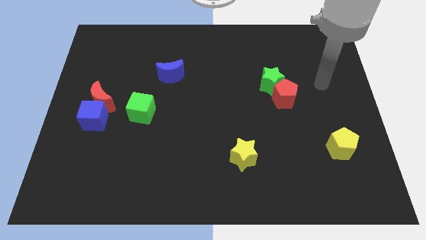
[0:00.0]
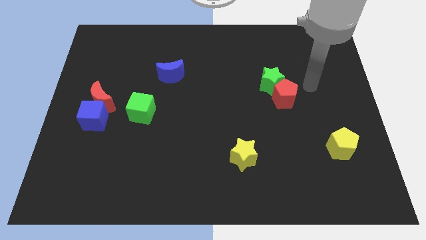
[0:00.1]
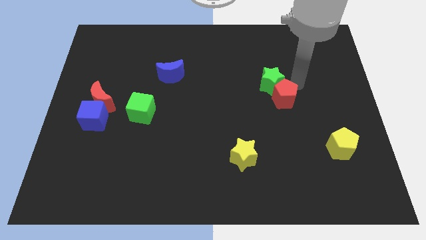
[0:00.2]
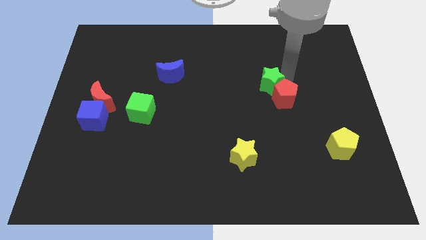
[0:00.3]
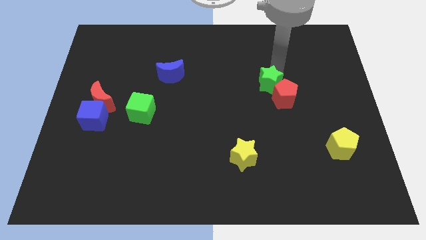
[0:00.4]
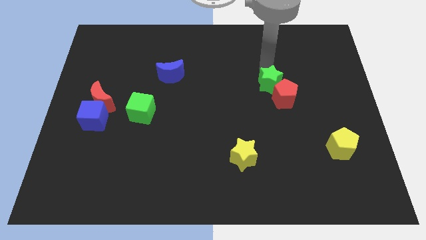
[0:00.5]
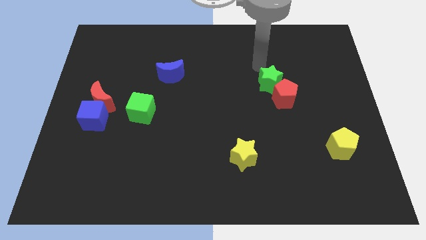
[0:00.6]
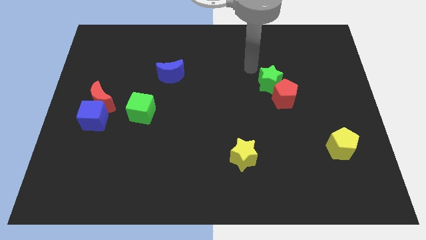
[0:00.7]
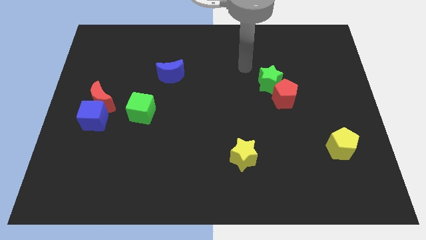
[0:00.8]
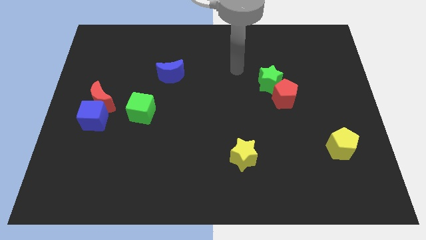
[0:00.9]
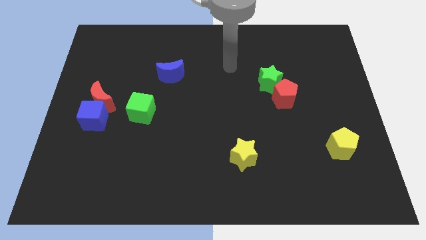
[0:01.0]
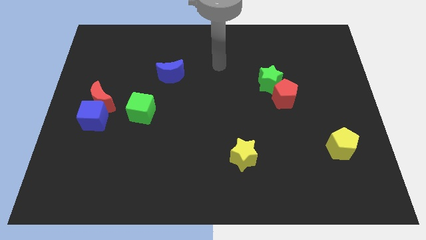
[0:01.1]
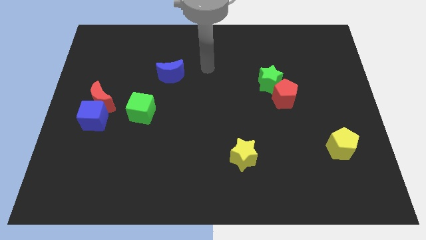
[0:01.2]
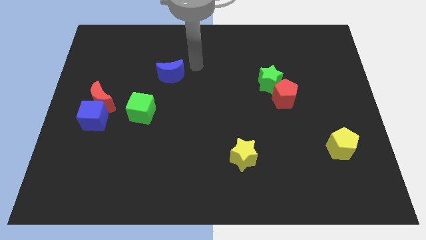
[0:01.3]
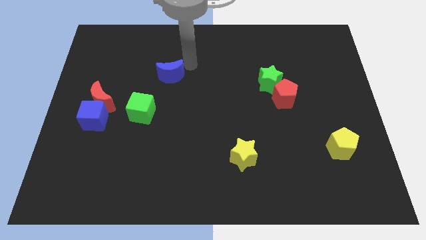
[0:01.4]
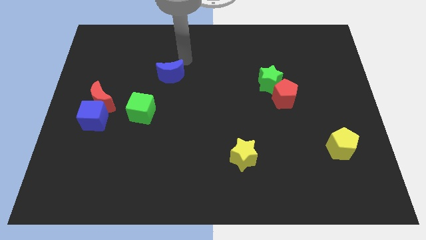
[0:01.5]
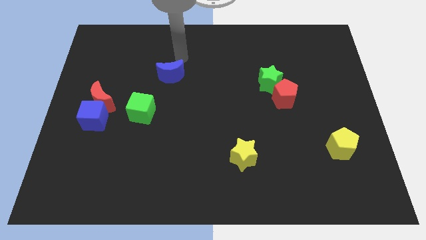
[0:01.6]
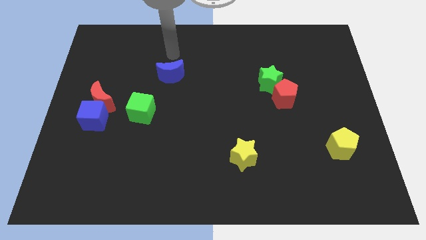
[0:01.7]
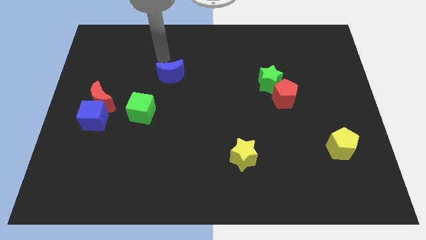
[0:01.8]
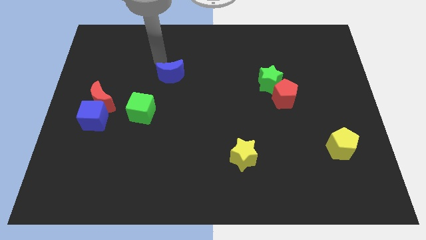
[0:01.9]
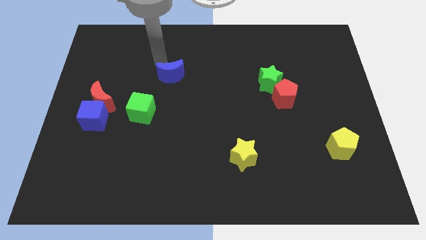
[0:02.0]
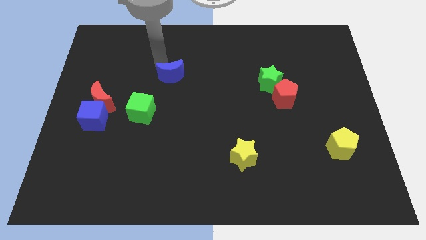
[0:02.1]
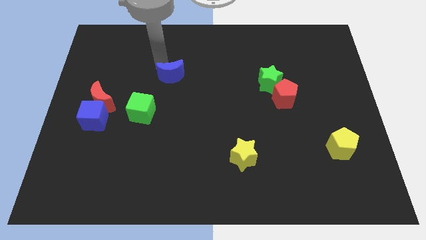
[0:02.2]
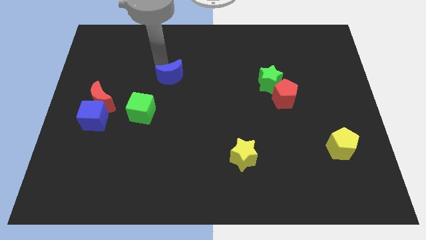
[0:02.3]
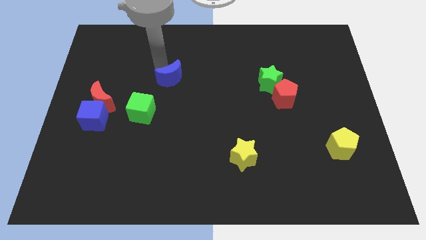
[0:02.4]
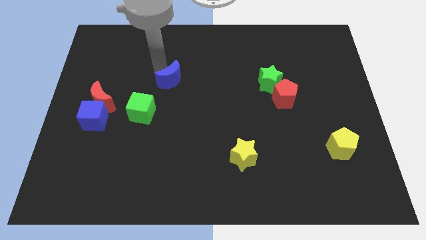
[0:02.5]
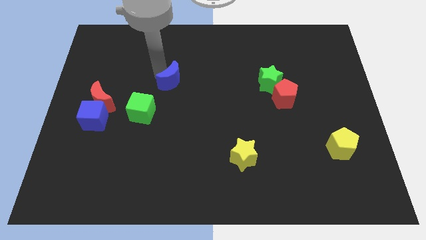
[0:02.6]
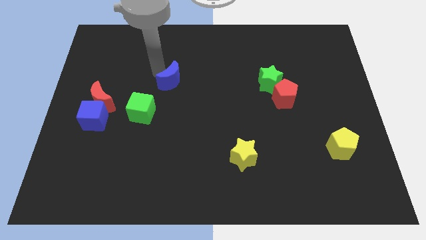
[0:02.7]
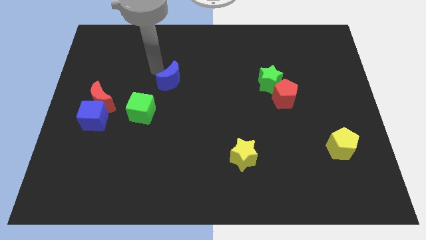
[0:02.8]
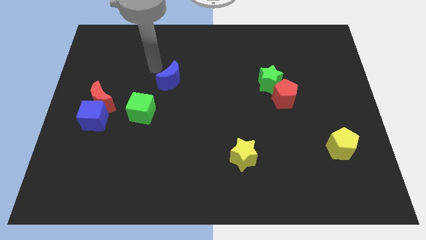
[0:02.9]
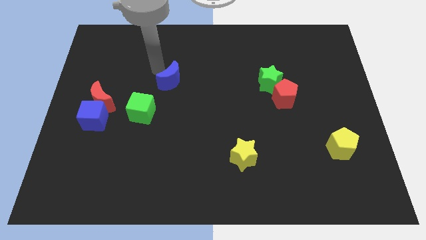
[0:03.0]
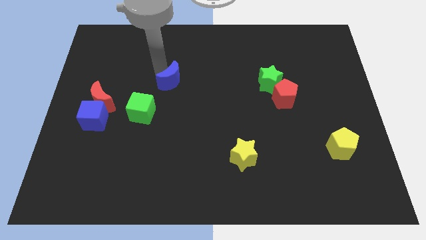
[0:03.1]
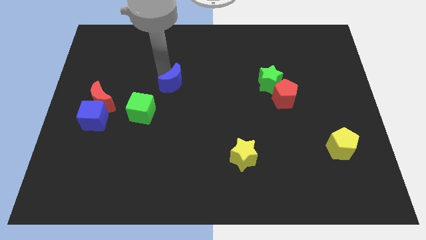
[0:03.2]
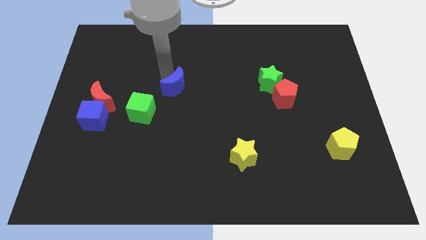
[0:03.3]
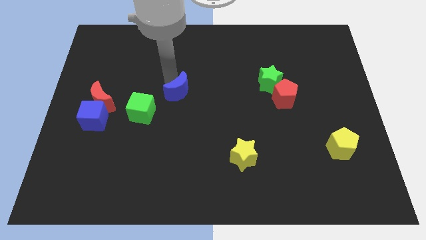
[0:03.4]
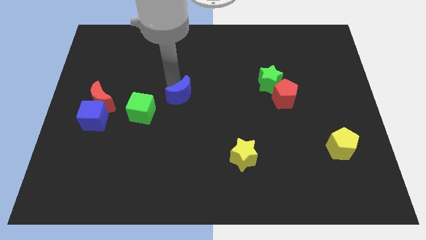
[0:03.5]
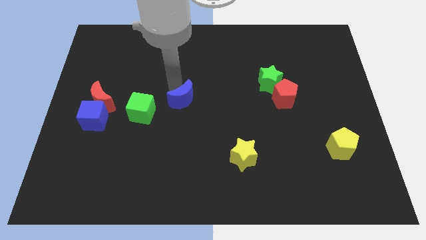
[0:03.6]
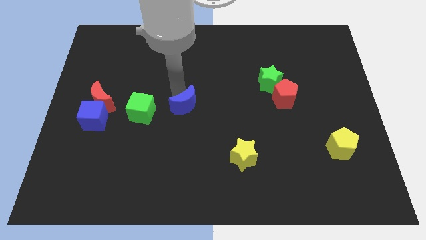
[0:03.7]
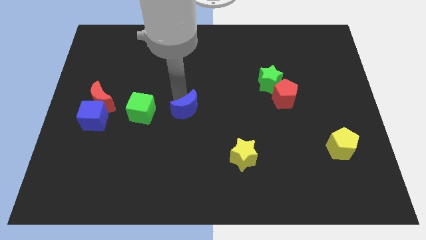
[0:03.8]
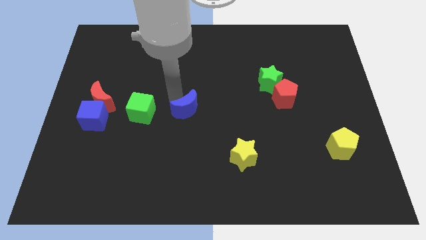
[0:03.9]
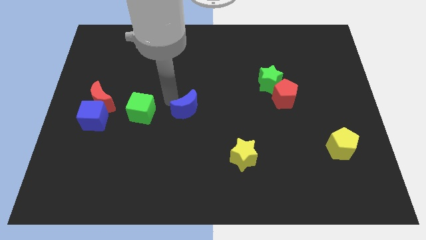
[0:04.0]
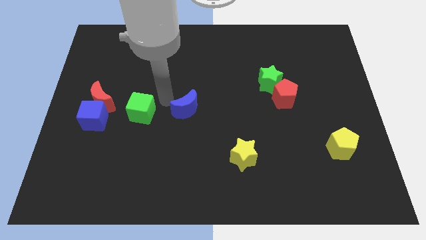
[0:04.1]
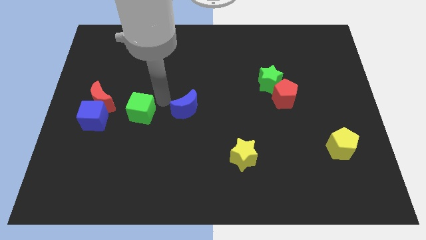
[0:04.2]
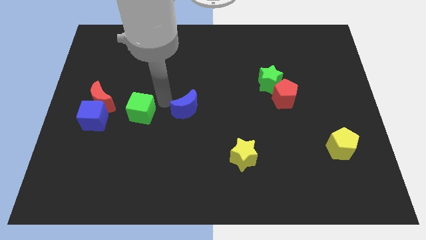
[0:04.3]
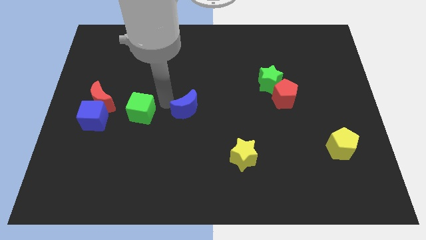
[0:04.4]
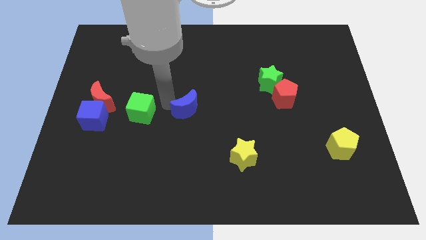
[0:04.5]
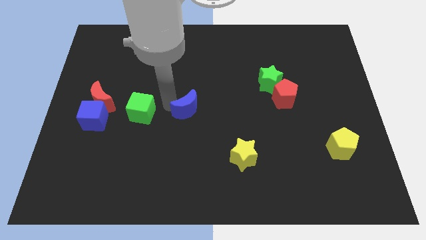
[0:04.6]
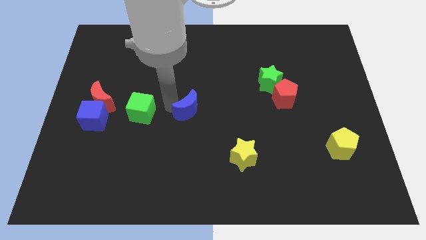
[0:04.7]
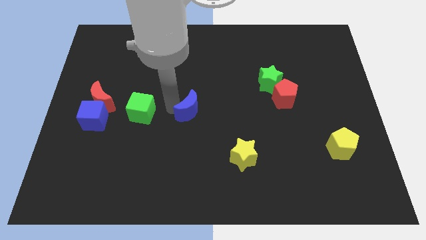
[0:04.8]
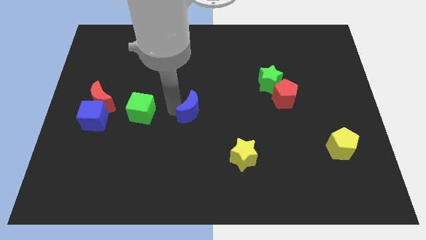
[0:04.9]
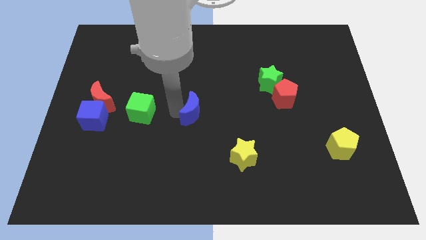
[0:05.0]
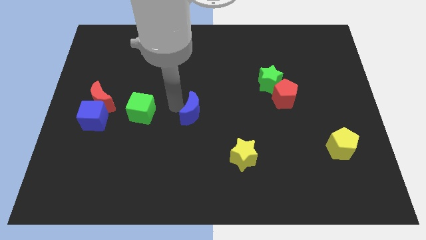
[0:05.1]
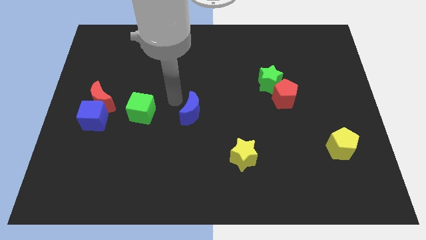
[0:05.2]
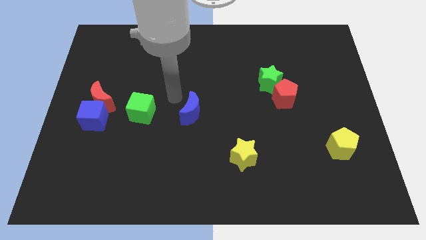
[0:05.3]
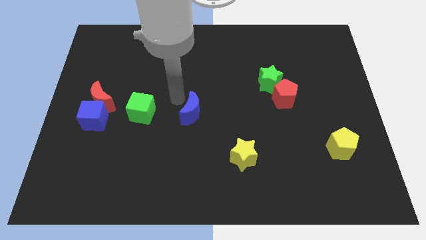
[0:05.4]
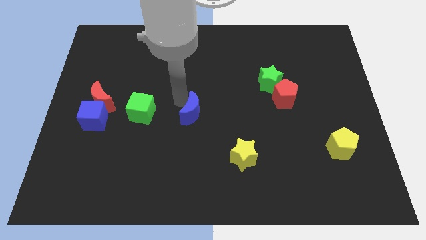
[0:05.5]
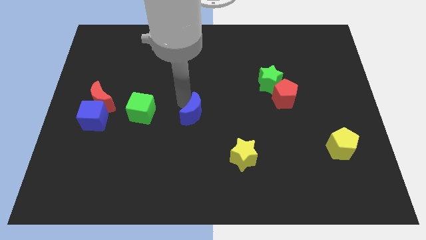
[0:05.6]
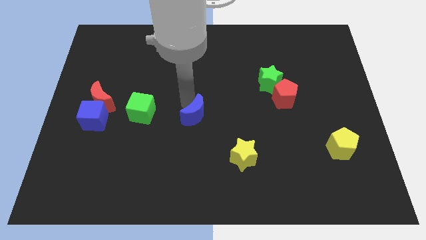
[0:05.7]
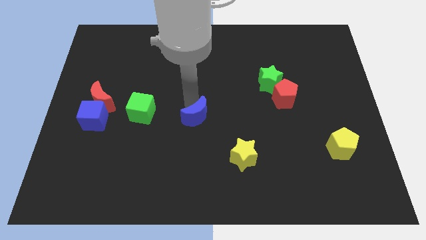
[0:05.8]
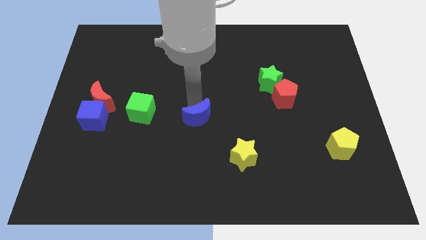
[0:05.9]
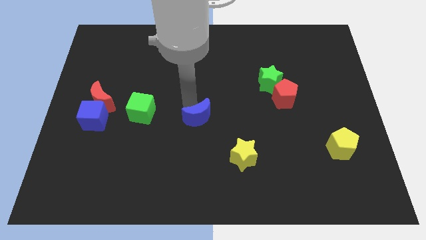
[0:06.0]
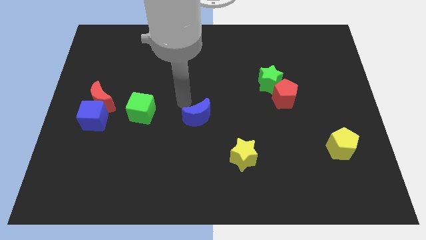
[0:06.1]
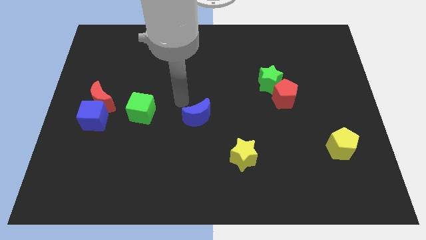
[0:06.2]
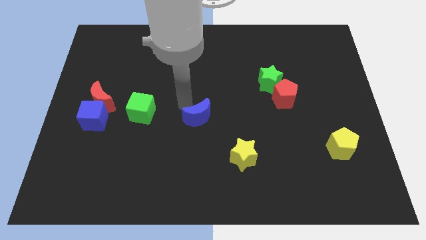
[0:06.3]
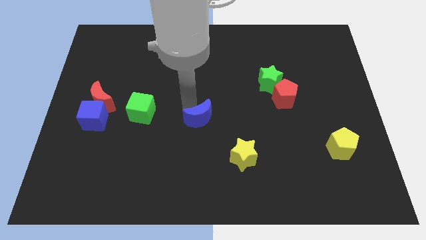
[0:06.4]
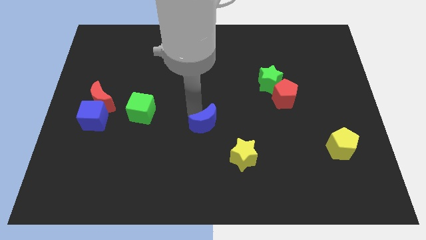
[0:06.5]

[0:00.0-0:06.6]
push the blue moon to the top left of the yellow star

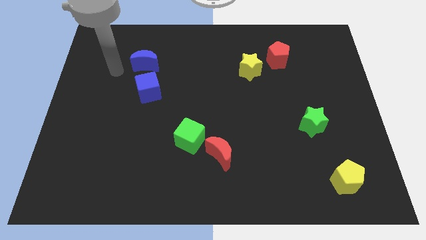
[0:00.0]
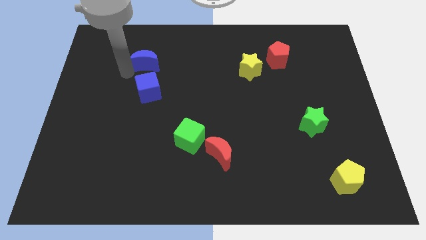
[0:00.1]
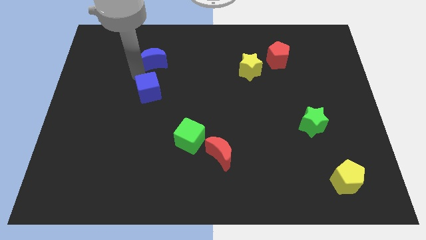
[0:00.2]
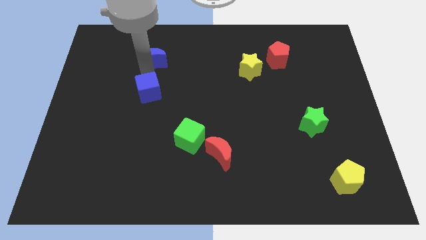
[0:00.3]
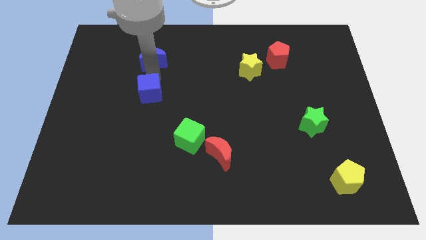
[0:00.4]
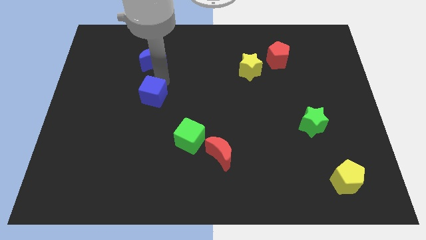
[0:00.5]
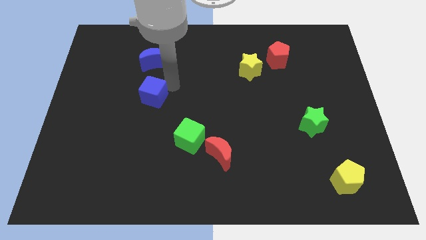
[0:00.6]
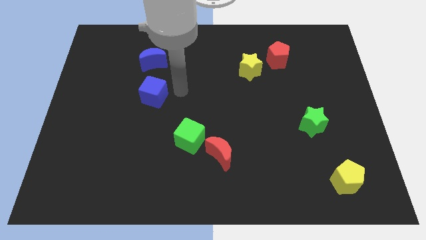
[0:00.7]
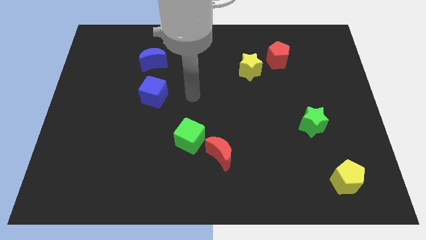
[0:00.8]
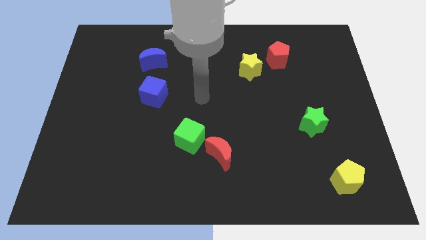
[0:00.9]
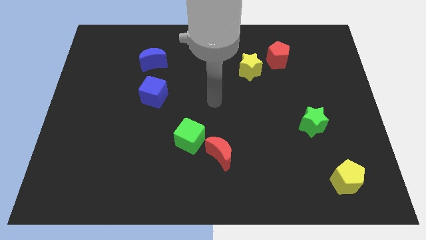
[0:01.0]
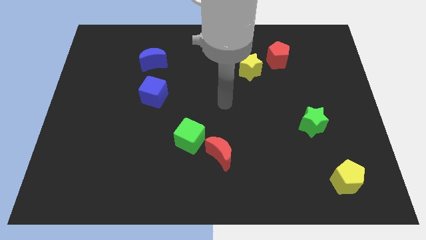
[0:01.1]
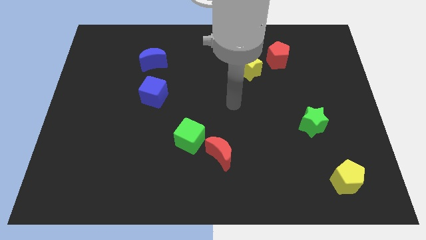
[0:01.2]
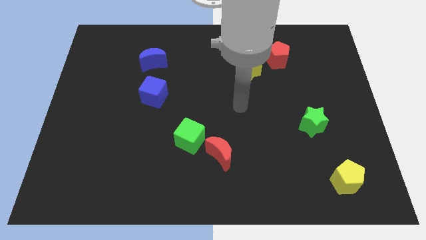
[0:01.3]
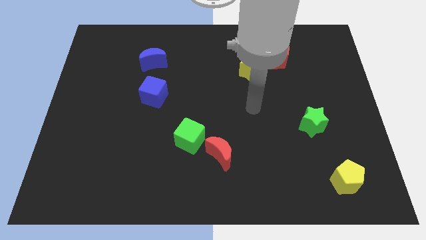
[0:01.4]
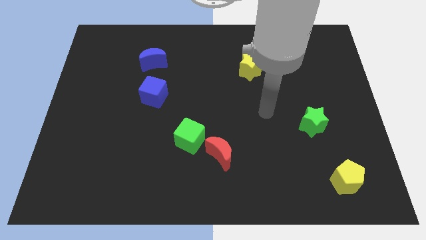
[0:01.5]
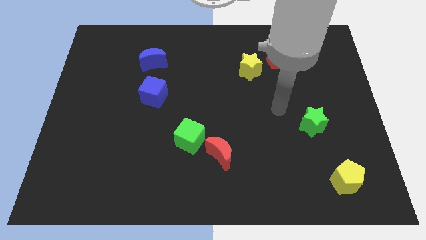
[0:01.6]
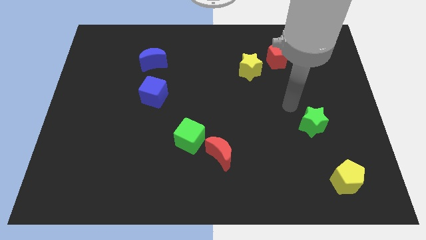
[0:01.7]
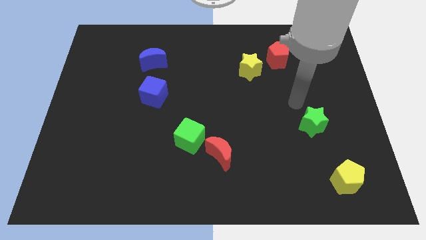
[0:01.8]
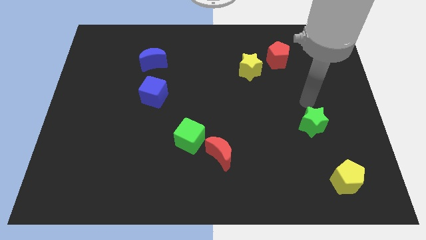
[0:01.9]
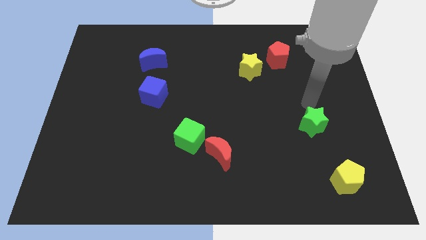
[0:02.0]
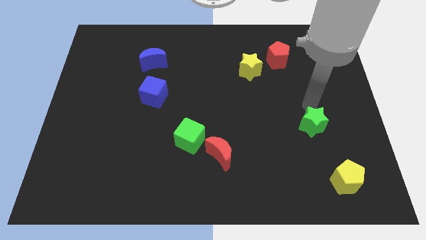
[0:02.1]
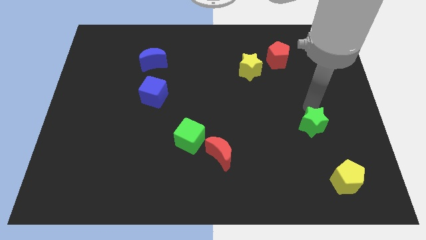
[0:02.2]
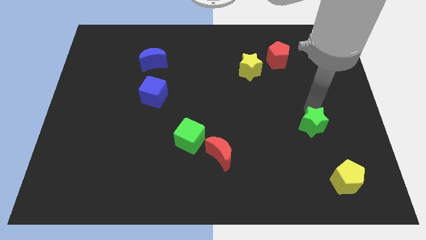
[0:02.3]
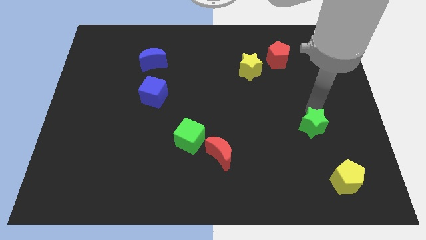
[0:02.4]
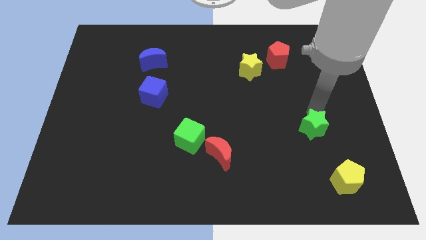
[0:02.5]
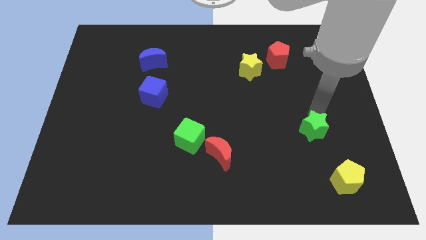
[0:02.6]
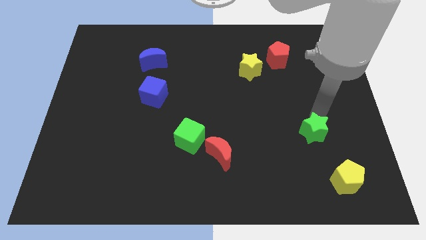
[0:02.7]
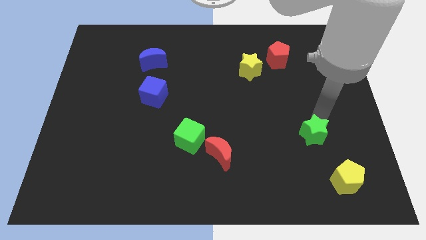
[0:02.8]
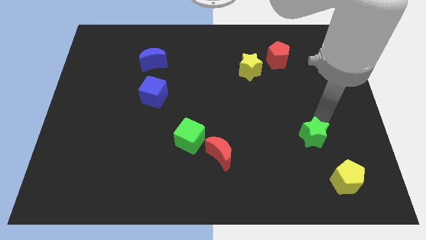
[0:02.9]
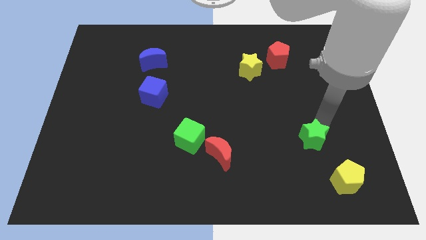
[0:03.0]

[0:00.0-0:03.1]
move the green star diagonally up and to the left of the yellow pentagon
